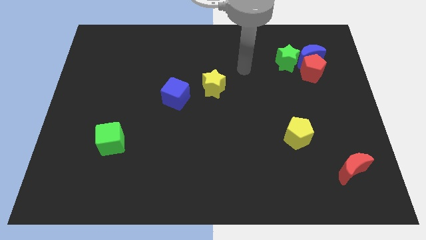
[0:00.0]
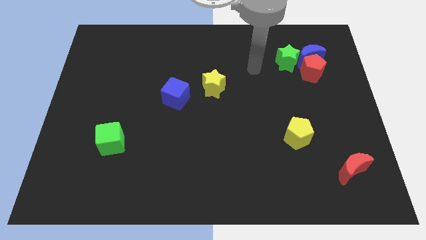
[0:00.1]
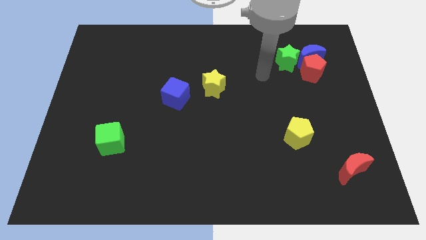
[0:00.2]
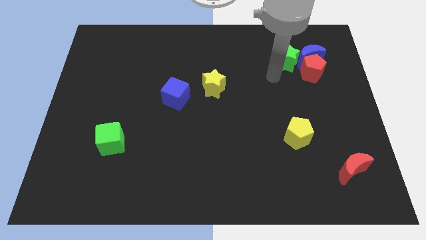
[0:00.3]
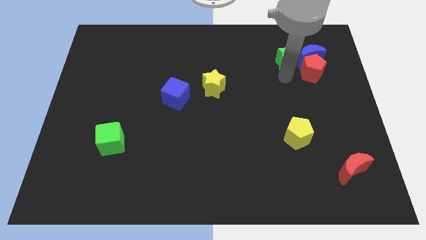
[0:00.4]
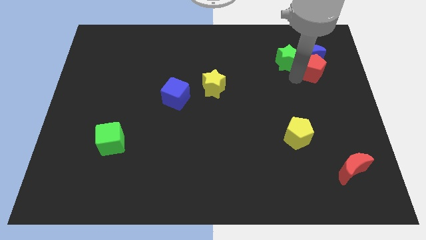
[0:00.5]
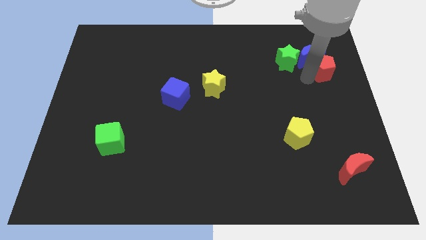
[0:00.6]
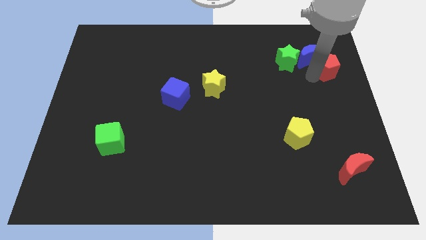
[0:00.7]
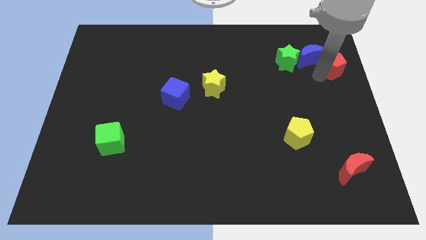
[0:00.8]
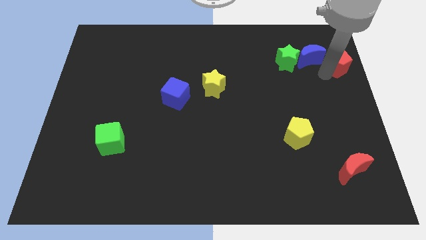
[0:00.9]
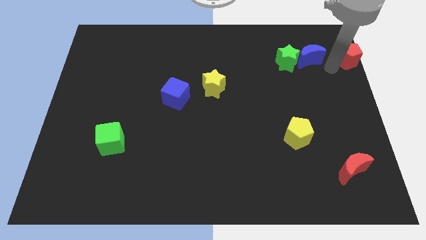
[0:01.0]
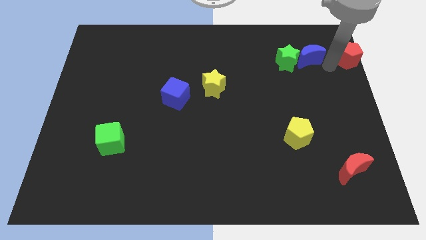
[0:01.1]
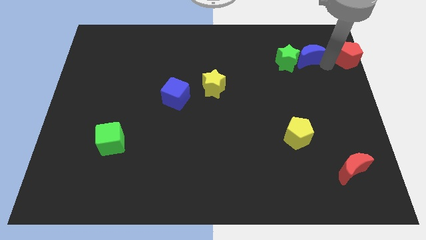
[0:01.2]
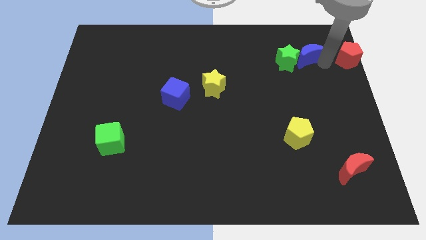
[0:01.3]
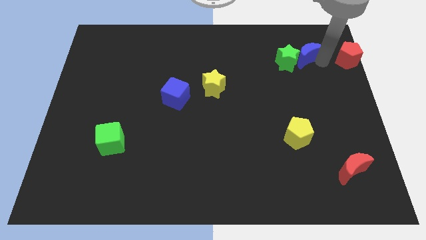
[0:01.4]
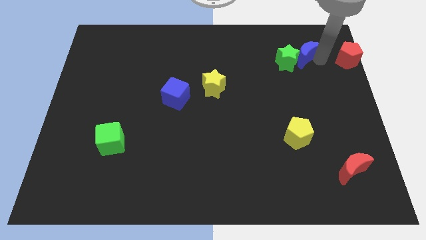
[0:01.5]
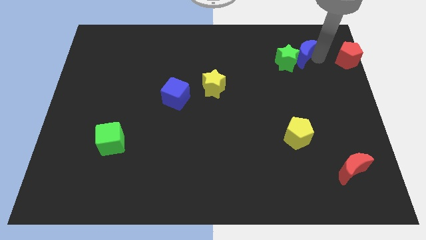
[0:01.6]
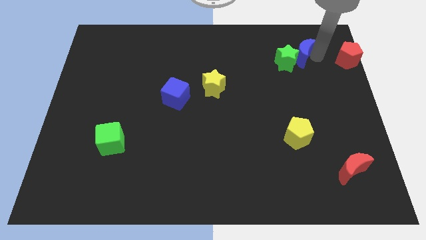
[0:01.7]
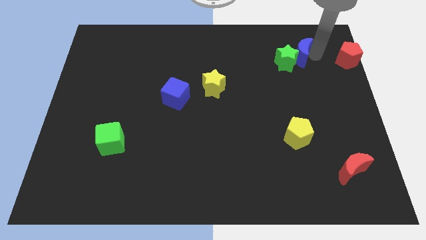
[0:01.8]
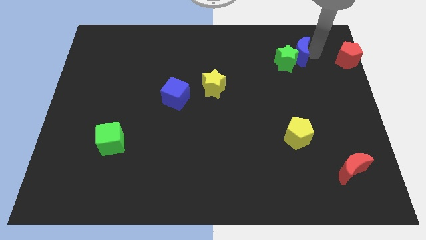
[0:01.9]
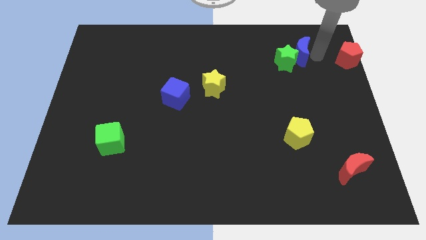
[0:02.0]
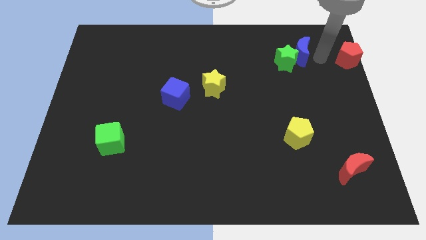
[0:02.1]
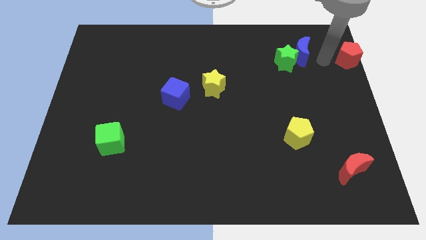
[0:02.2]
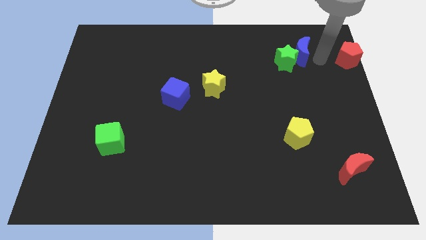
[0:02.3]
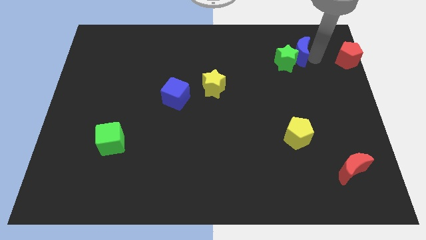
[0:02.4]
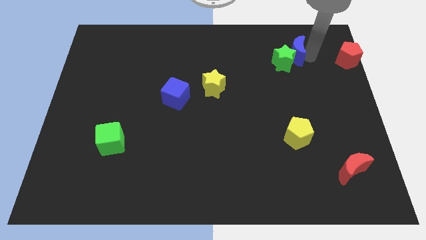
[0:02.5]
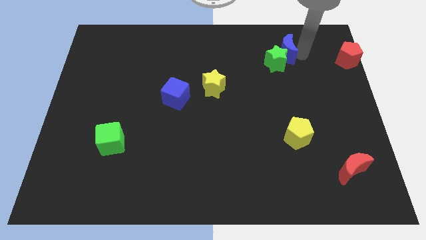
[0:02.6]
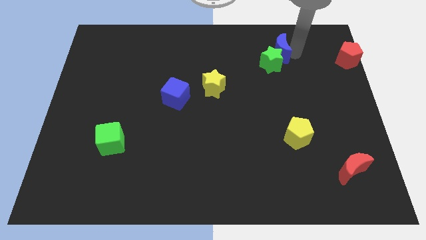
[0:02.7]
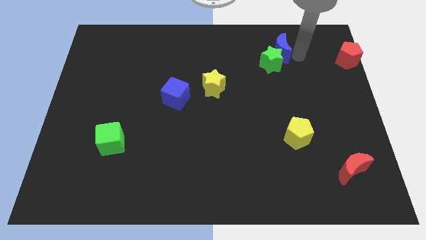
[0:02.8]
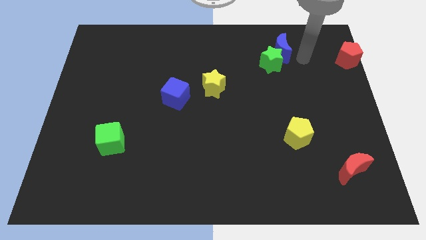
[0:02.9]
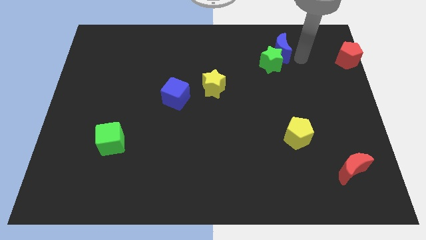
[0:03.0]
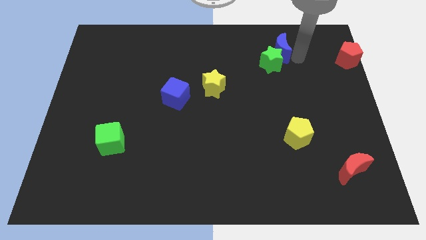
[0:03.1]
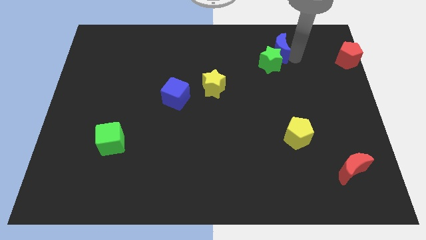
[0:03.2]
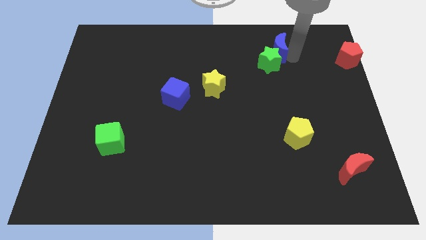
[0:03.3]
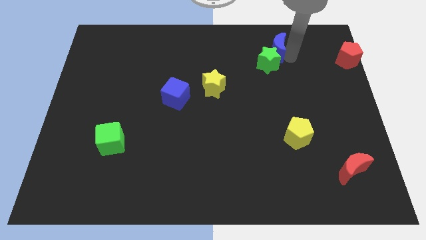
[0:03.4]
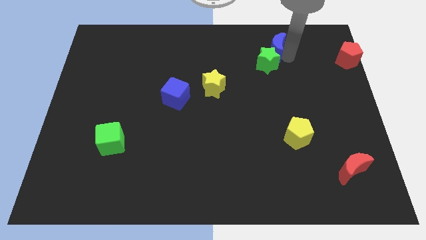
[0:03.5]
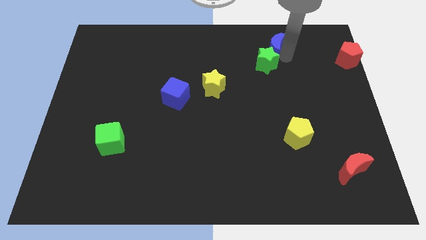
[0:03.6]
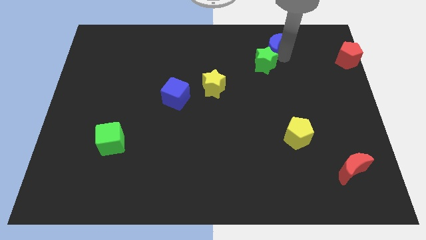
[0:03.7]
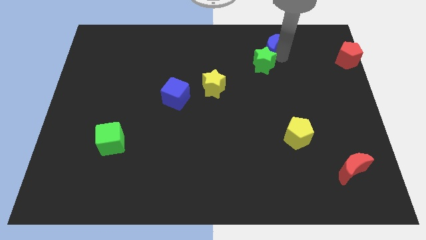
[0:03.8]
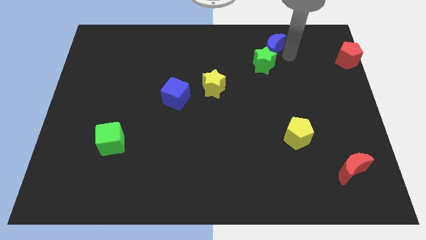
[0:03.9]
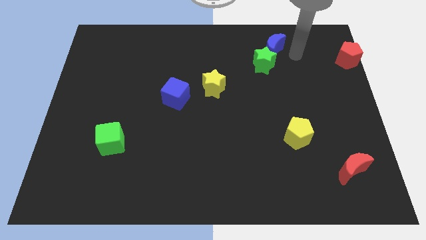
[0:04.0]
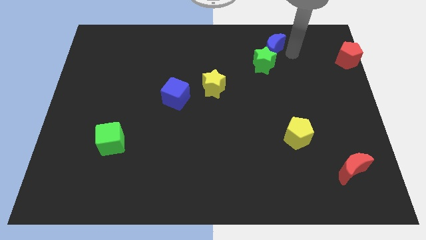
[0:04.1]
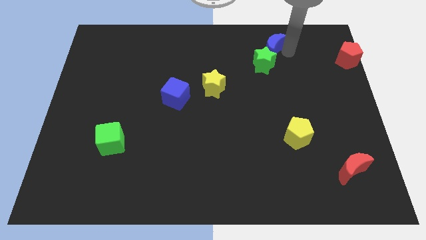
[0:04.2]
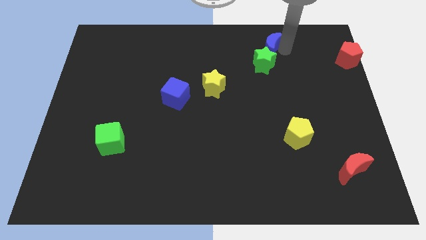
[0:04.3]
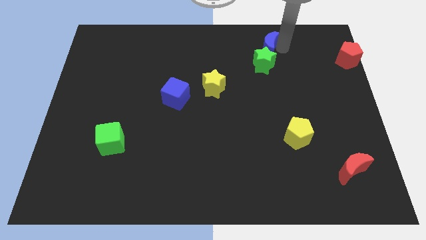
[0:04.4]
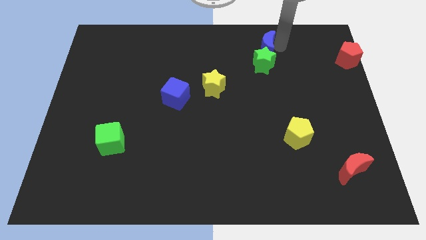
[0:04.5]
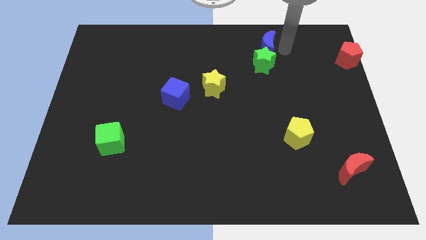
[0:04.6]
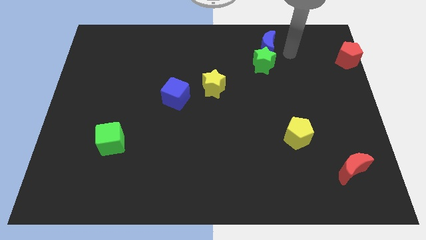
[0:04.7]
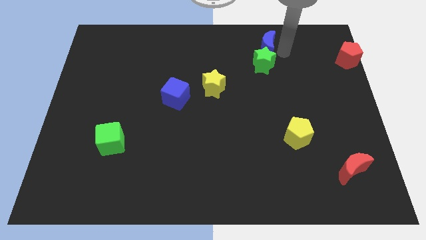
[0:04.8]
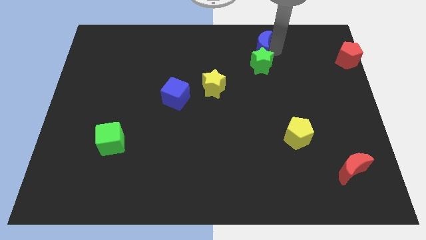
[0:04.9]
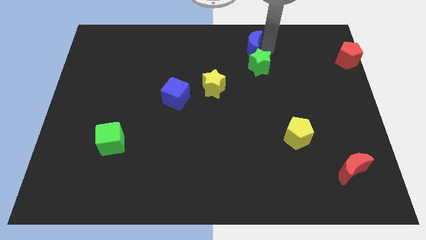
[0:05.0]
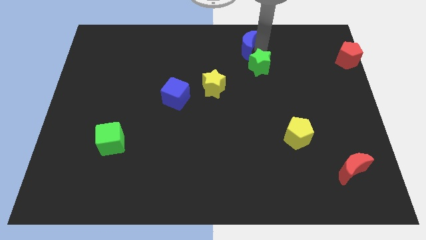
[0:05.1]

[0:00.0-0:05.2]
put the blue moon to the top
